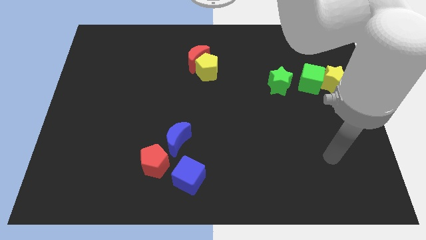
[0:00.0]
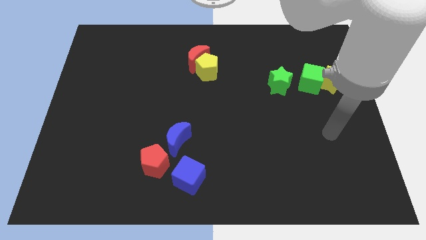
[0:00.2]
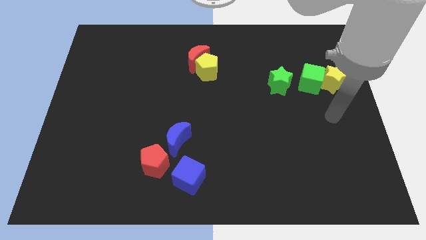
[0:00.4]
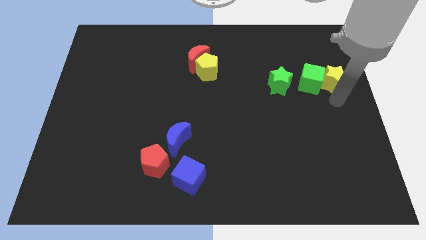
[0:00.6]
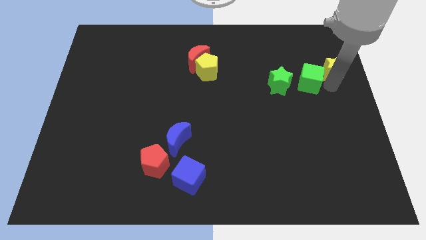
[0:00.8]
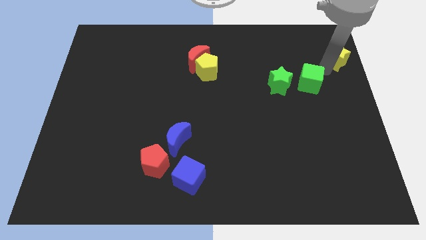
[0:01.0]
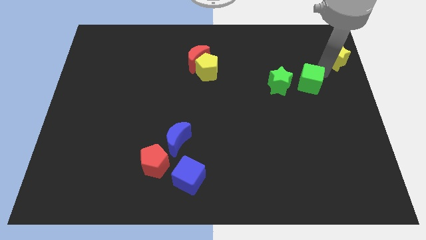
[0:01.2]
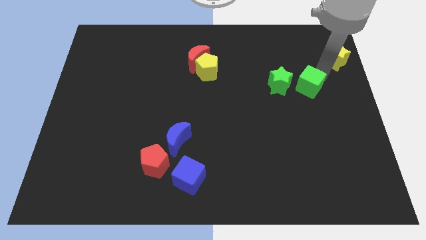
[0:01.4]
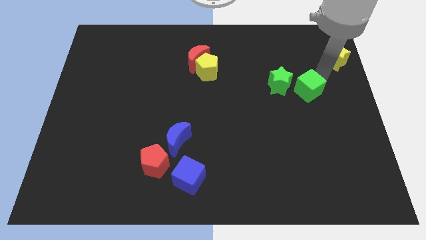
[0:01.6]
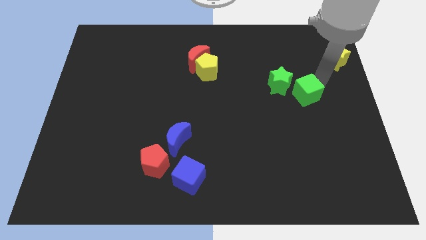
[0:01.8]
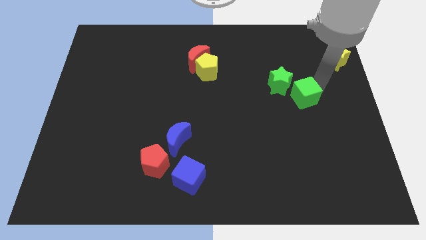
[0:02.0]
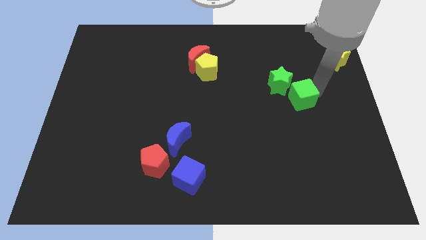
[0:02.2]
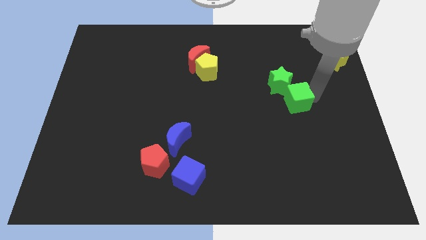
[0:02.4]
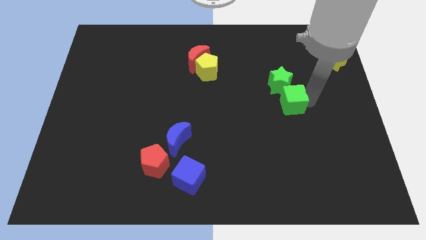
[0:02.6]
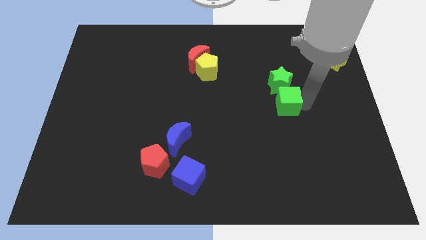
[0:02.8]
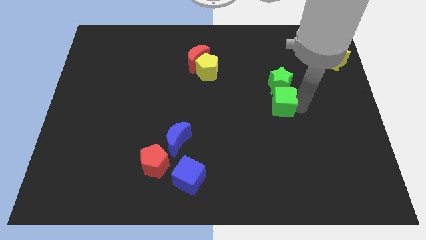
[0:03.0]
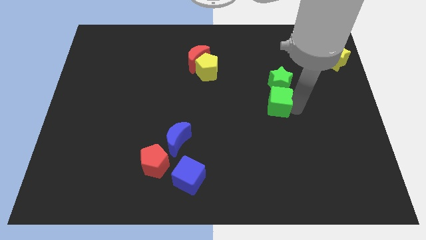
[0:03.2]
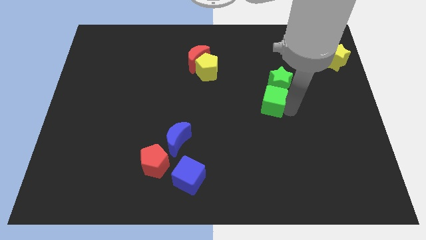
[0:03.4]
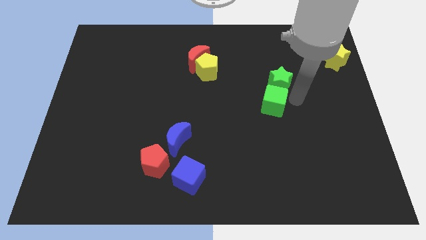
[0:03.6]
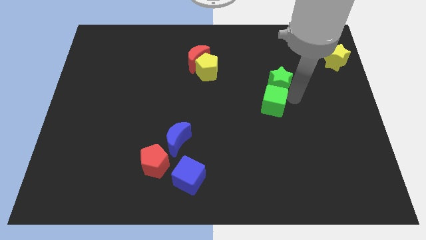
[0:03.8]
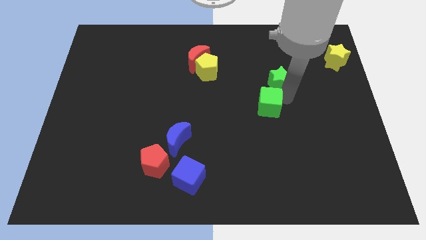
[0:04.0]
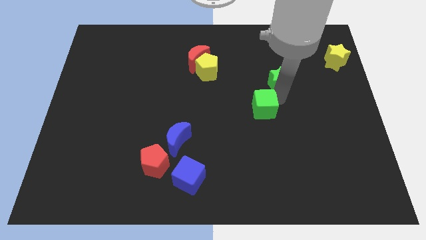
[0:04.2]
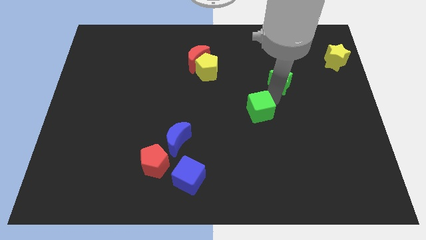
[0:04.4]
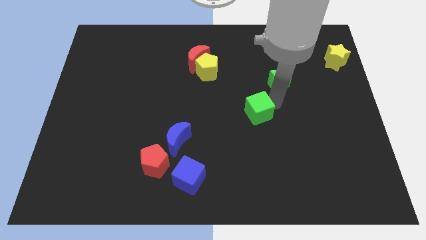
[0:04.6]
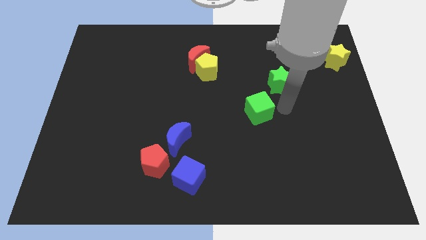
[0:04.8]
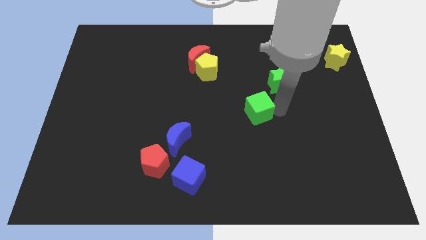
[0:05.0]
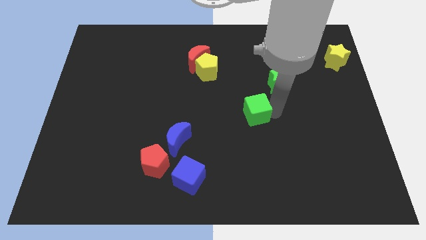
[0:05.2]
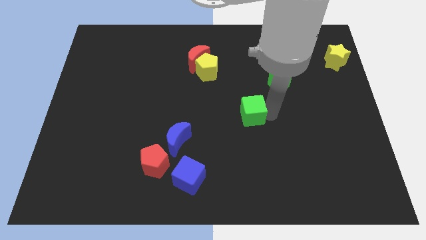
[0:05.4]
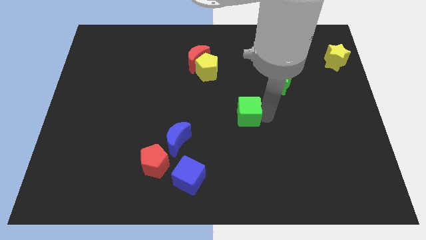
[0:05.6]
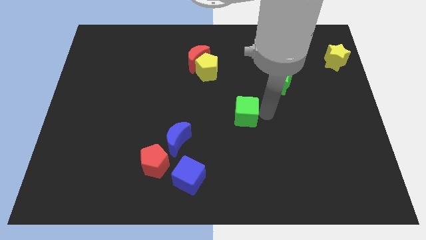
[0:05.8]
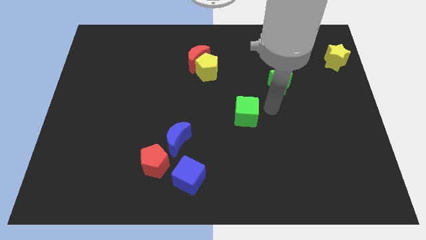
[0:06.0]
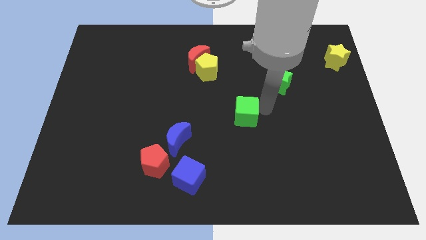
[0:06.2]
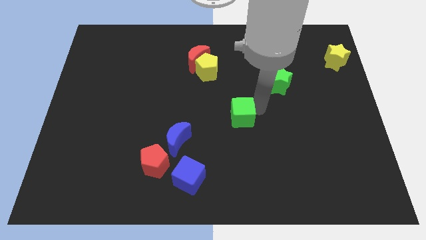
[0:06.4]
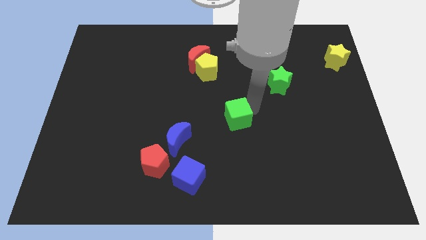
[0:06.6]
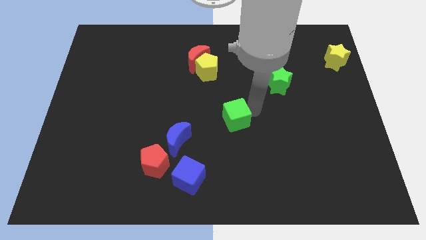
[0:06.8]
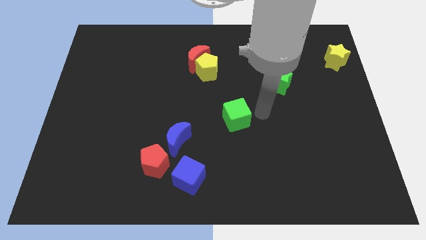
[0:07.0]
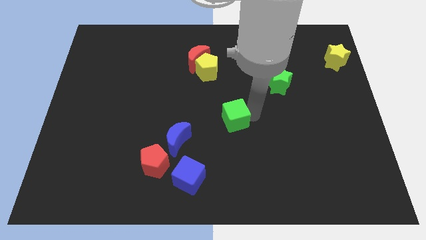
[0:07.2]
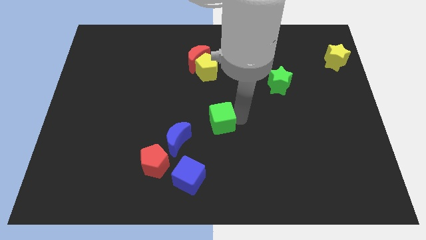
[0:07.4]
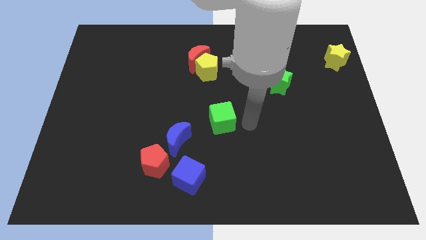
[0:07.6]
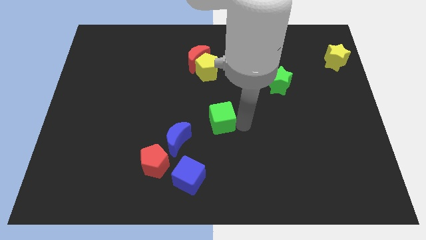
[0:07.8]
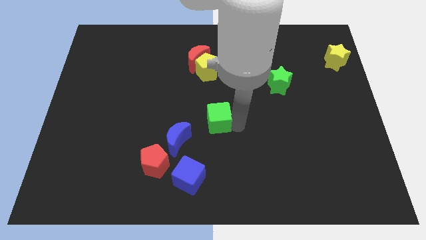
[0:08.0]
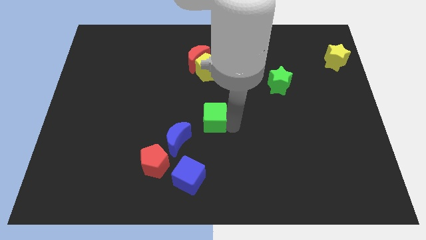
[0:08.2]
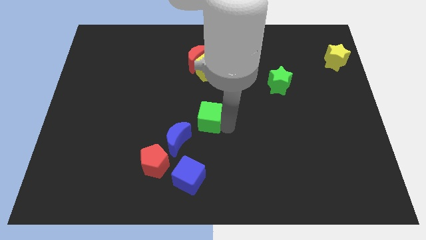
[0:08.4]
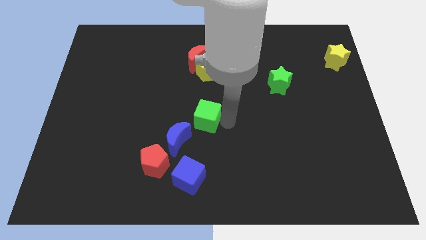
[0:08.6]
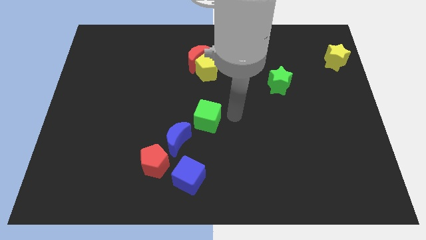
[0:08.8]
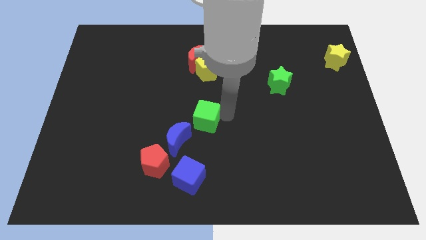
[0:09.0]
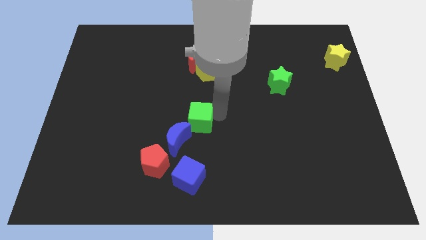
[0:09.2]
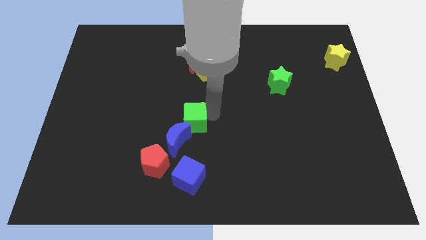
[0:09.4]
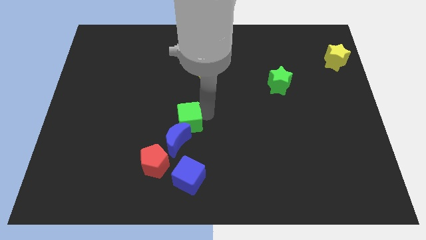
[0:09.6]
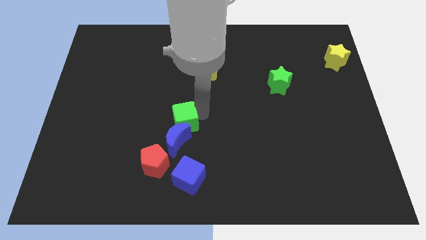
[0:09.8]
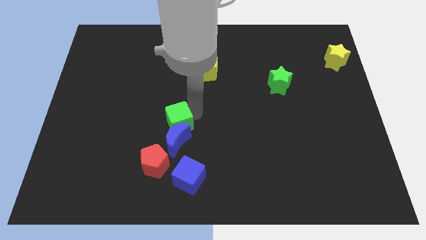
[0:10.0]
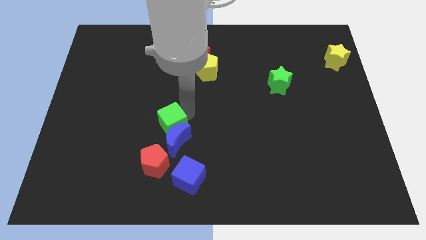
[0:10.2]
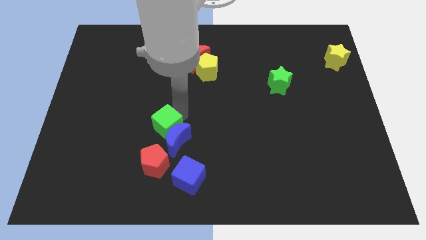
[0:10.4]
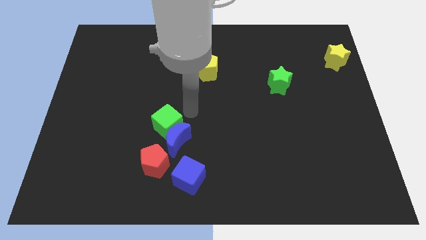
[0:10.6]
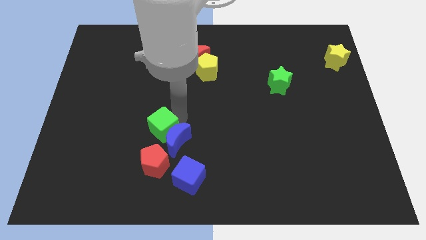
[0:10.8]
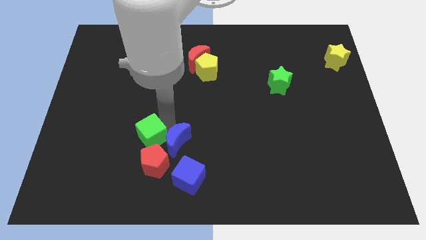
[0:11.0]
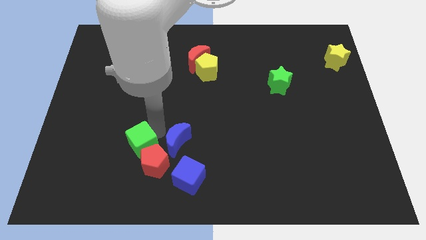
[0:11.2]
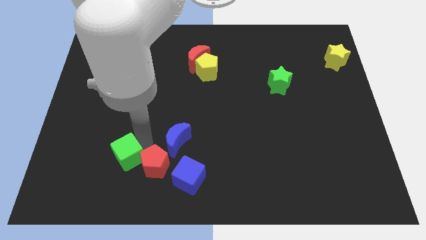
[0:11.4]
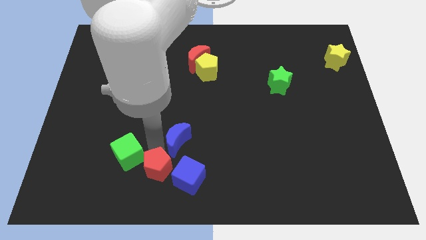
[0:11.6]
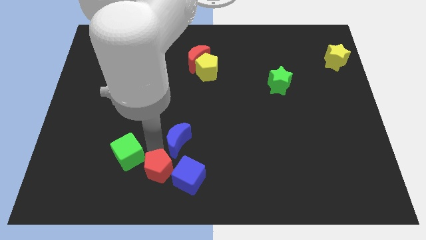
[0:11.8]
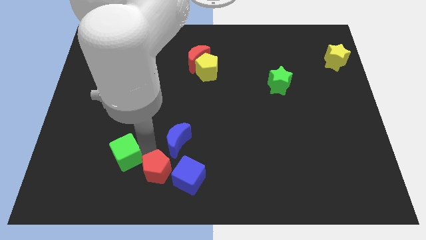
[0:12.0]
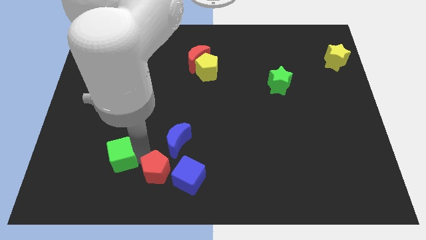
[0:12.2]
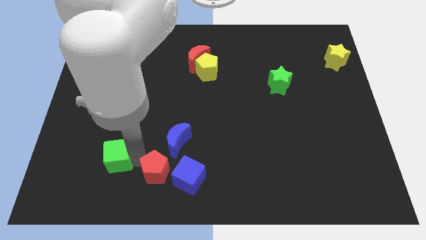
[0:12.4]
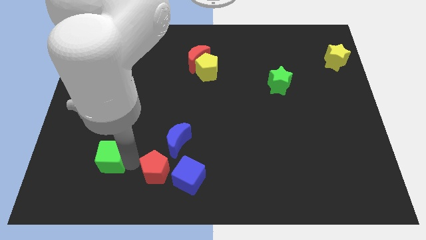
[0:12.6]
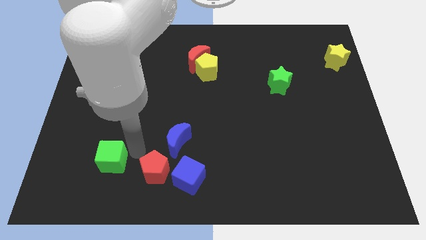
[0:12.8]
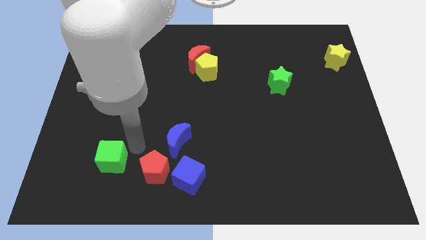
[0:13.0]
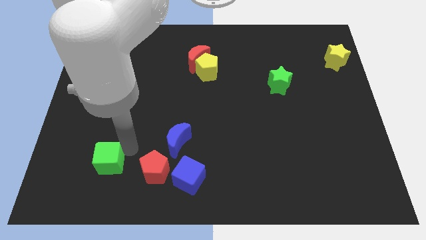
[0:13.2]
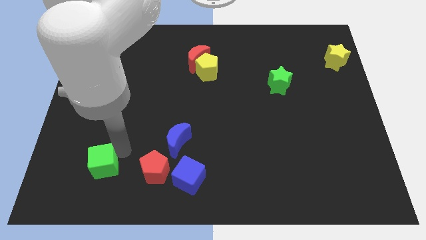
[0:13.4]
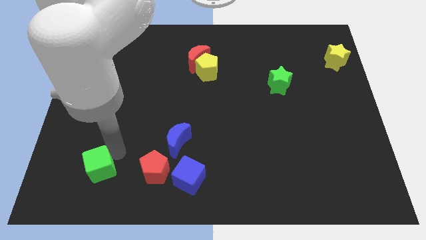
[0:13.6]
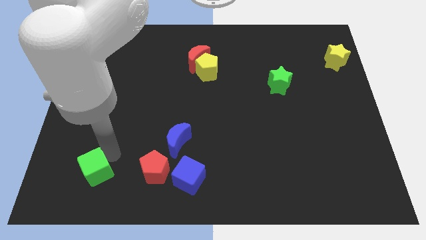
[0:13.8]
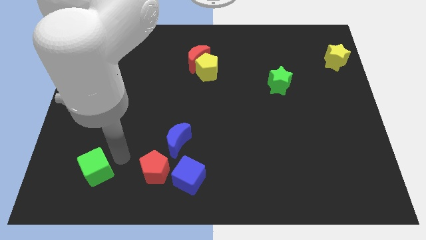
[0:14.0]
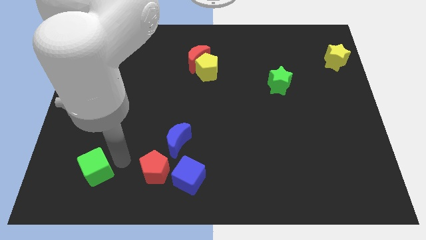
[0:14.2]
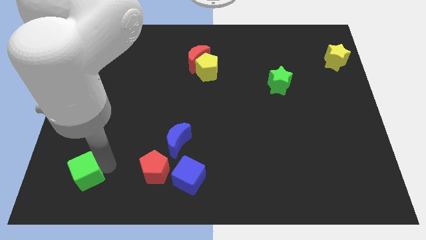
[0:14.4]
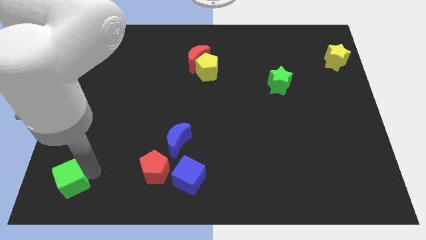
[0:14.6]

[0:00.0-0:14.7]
put the green cube to the lower left corner
